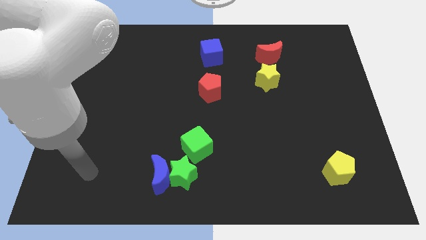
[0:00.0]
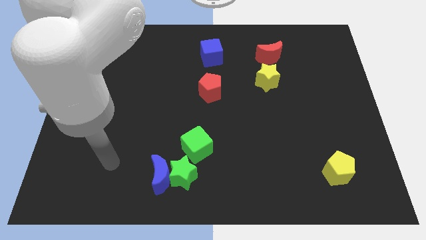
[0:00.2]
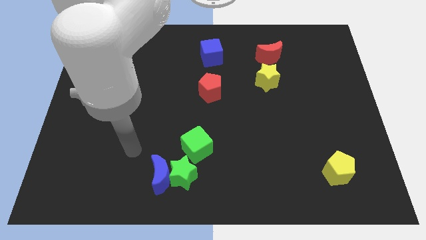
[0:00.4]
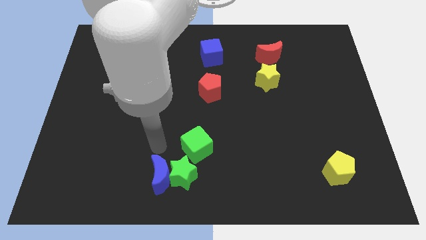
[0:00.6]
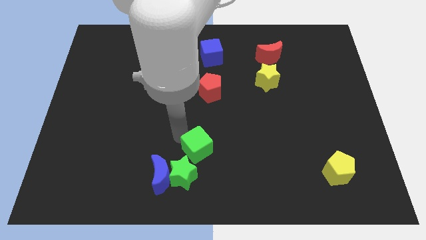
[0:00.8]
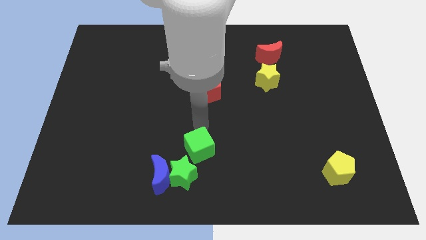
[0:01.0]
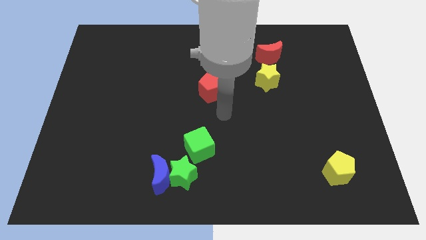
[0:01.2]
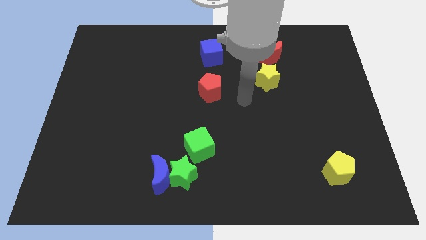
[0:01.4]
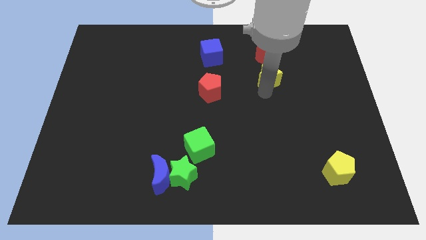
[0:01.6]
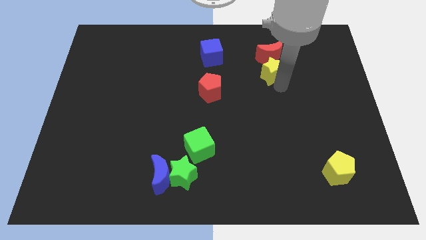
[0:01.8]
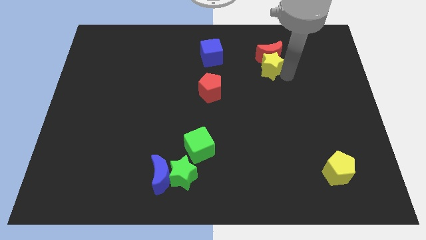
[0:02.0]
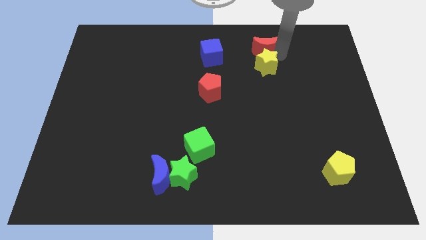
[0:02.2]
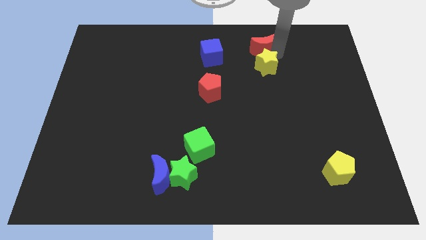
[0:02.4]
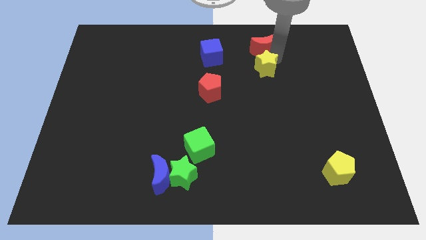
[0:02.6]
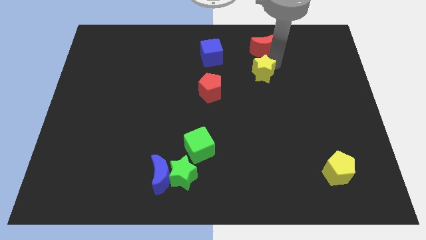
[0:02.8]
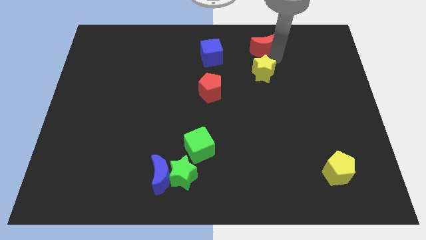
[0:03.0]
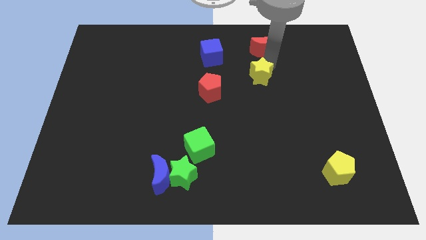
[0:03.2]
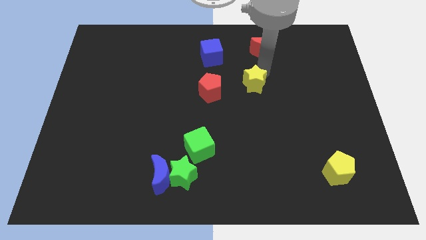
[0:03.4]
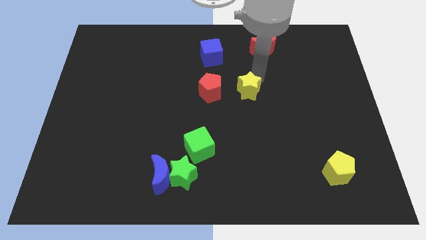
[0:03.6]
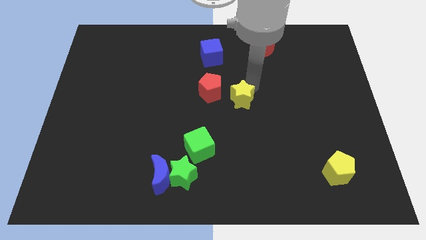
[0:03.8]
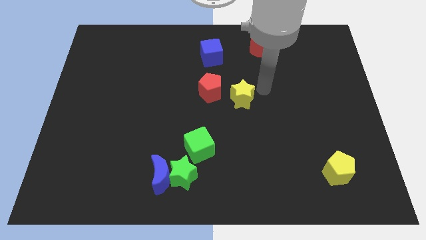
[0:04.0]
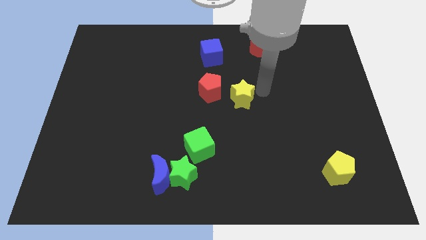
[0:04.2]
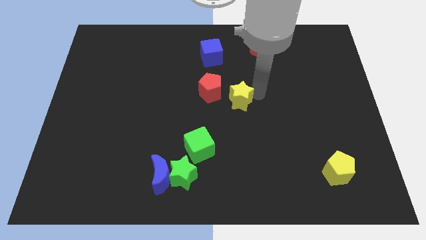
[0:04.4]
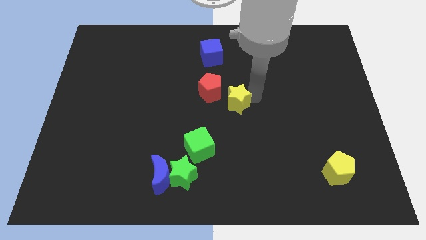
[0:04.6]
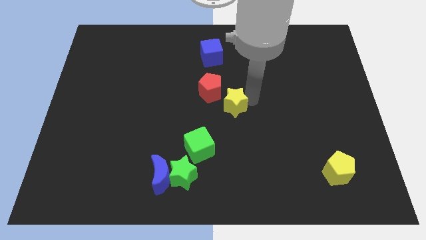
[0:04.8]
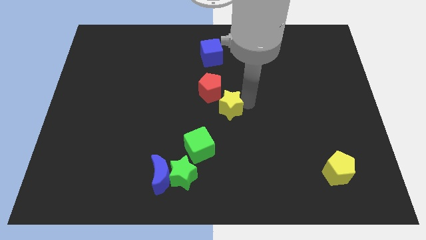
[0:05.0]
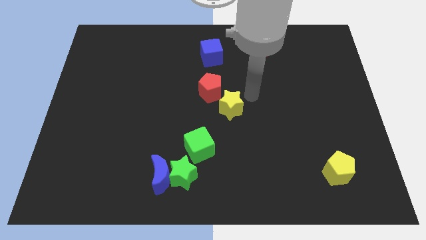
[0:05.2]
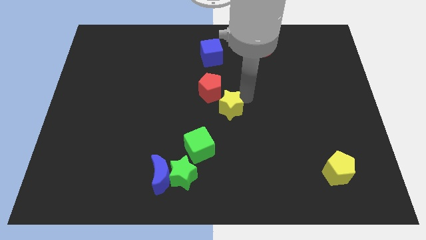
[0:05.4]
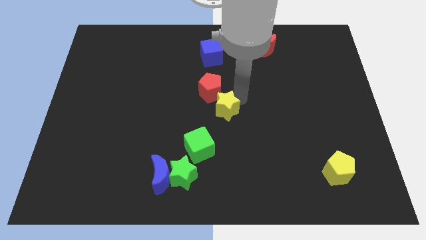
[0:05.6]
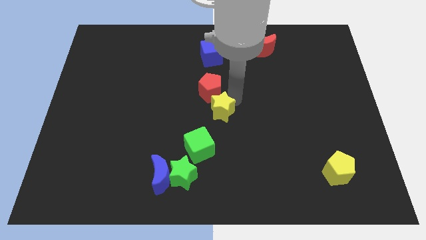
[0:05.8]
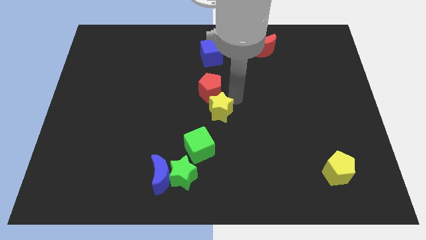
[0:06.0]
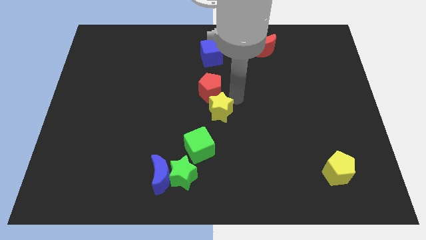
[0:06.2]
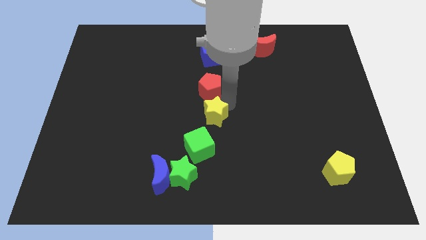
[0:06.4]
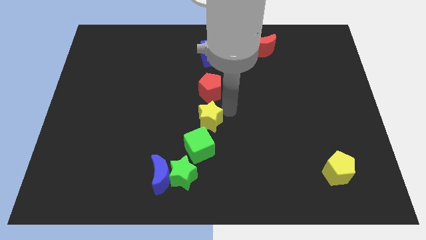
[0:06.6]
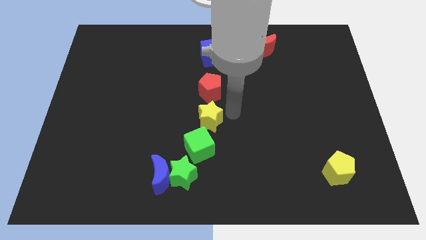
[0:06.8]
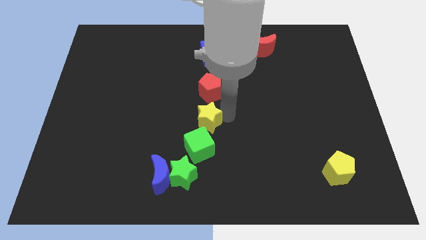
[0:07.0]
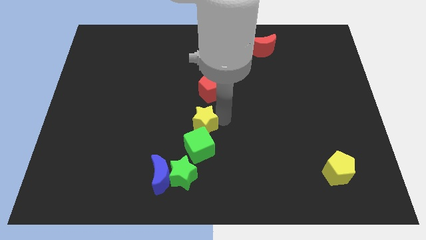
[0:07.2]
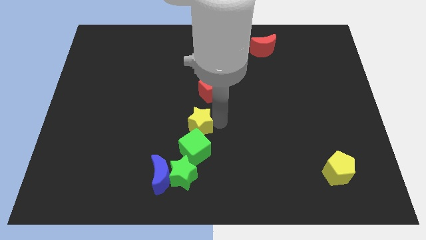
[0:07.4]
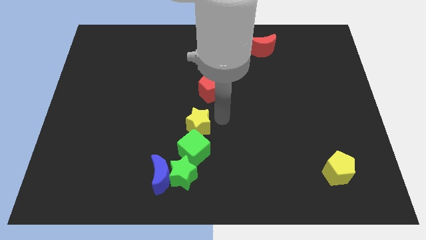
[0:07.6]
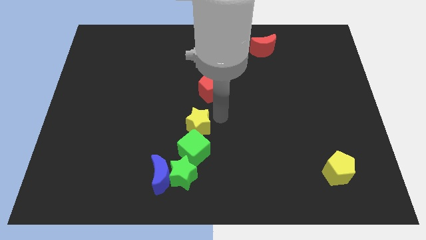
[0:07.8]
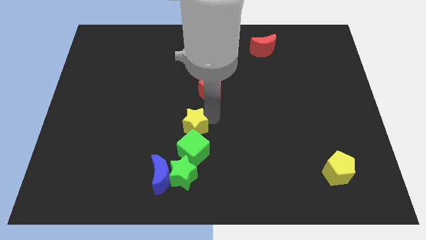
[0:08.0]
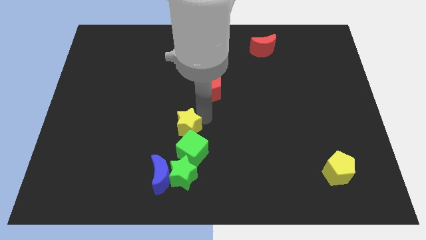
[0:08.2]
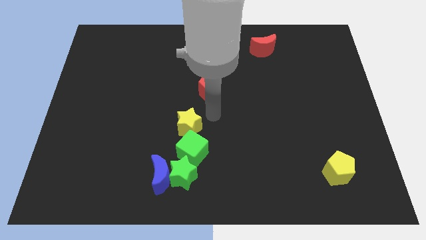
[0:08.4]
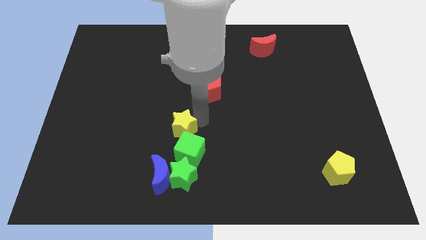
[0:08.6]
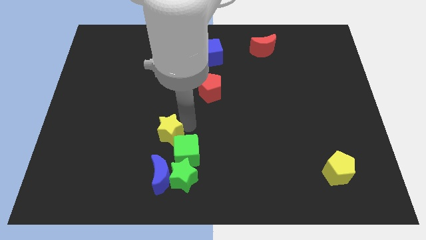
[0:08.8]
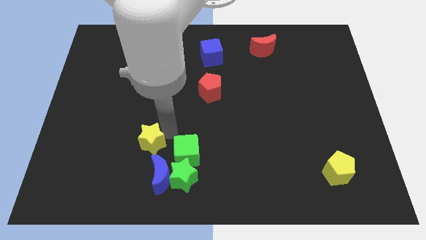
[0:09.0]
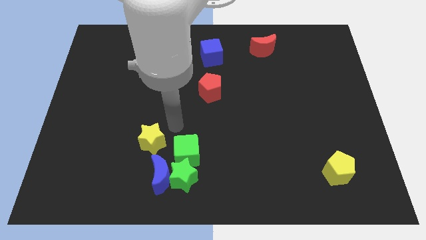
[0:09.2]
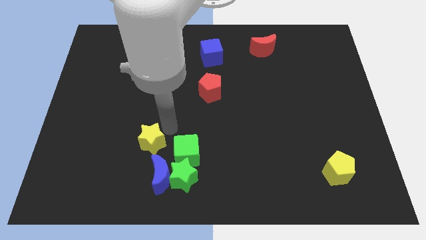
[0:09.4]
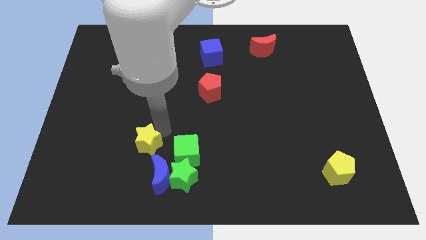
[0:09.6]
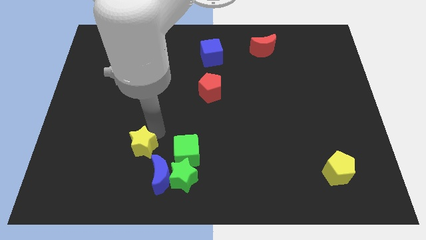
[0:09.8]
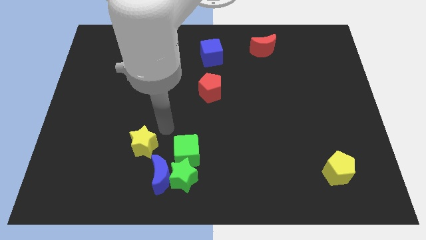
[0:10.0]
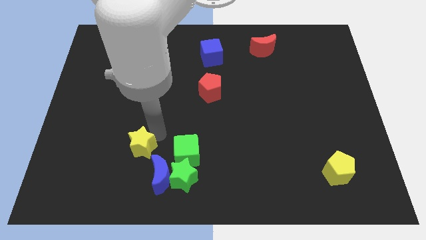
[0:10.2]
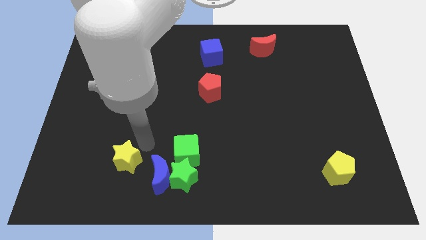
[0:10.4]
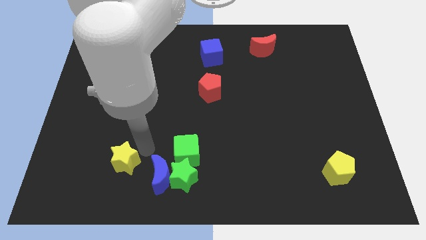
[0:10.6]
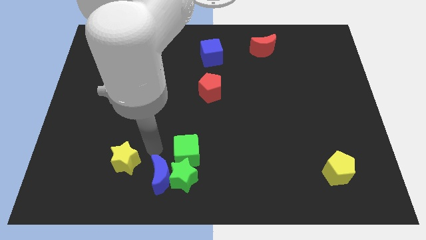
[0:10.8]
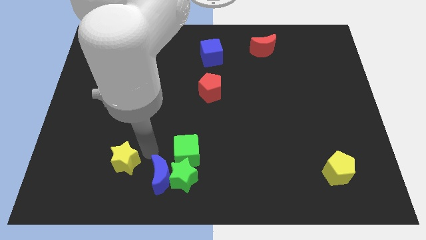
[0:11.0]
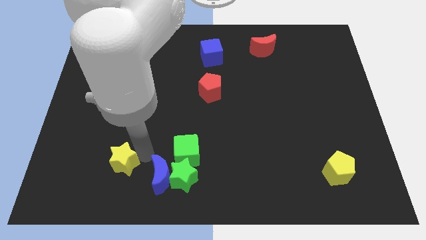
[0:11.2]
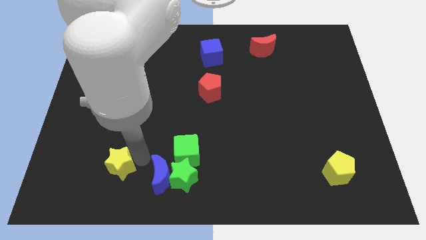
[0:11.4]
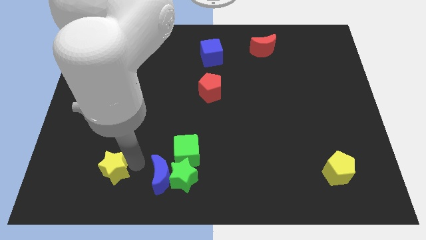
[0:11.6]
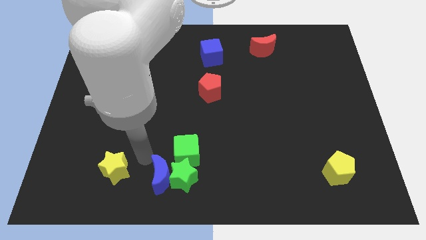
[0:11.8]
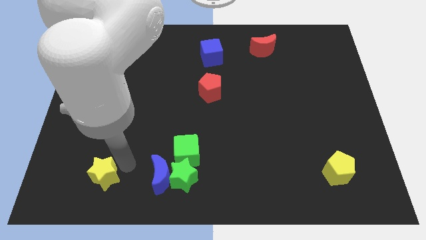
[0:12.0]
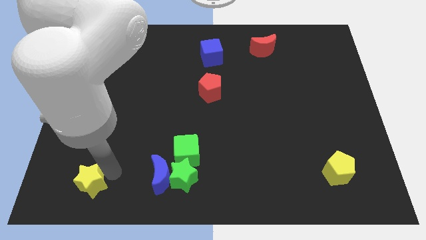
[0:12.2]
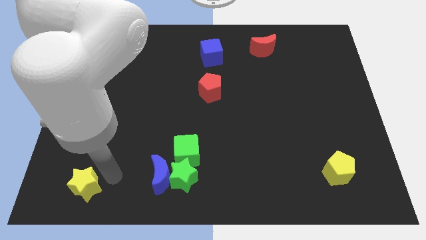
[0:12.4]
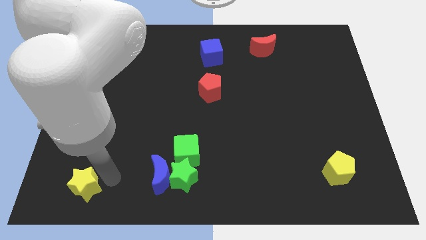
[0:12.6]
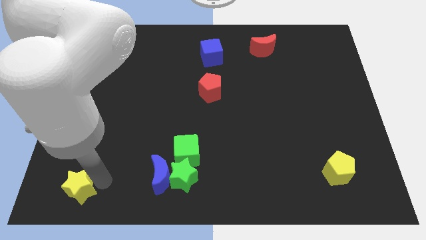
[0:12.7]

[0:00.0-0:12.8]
put the yellow star to the bottom left

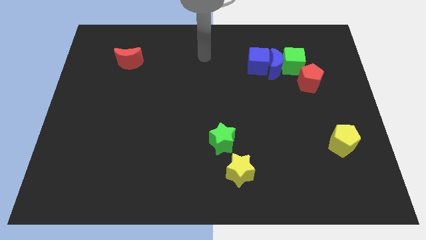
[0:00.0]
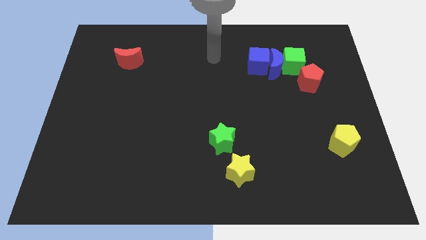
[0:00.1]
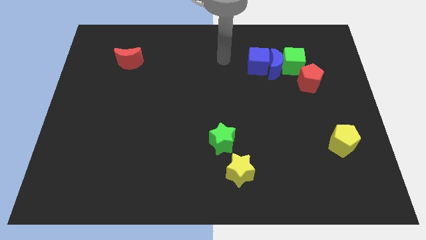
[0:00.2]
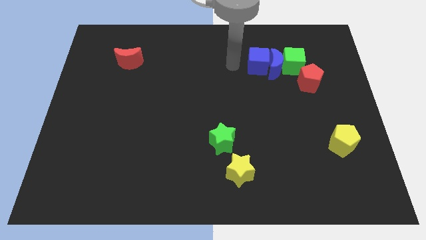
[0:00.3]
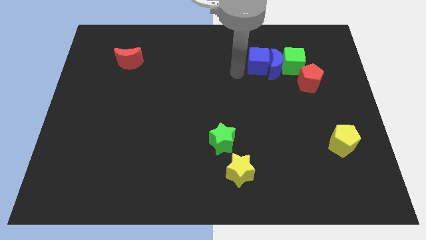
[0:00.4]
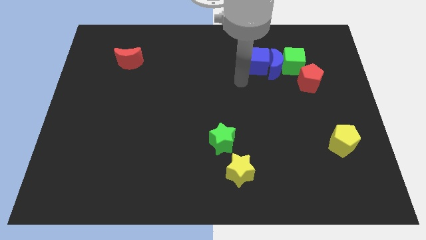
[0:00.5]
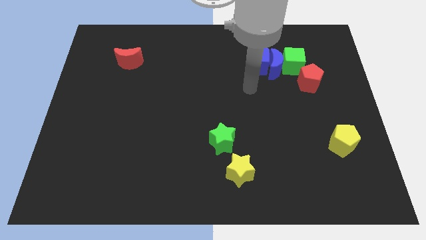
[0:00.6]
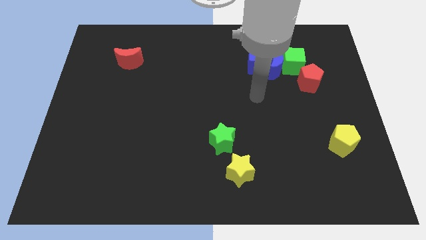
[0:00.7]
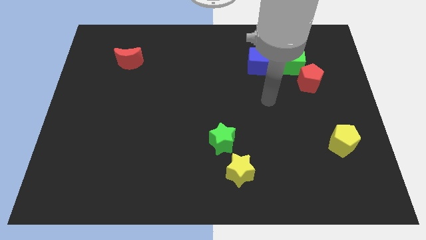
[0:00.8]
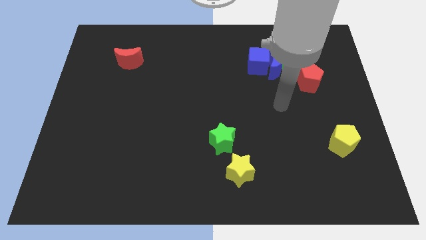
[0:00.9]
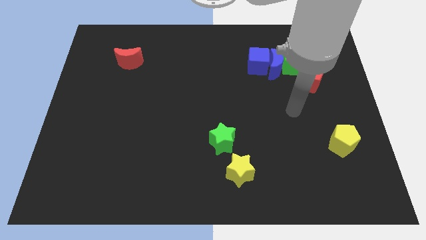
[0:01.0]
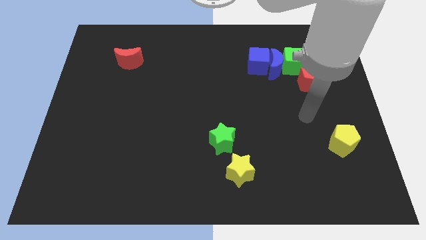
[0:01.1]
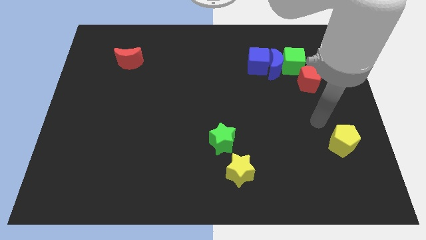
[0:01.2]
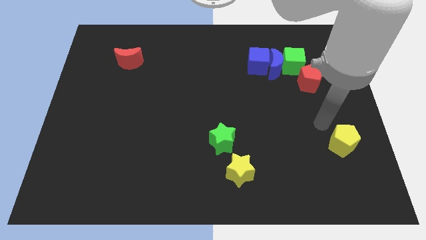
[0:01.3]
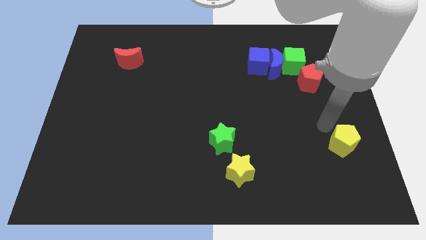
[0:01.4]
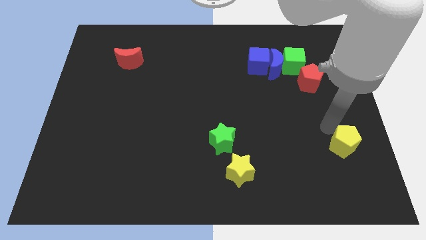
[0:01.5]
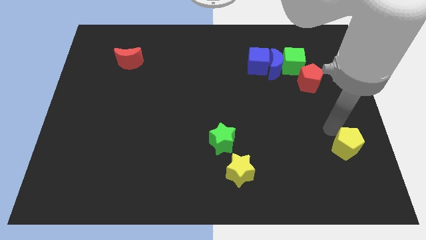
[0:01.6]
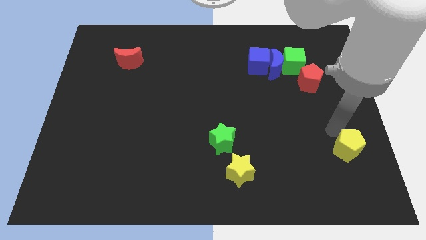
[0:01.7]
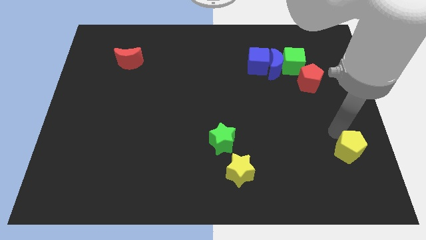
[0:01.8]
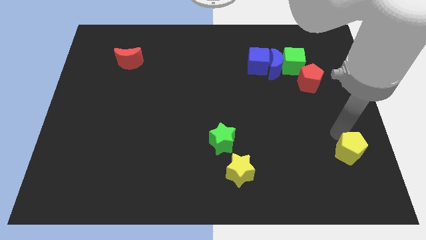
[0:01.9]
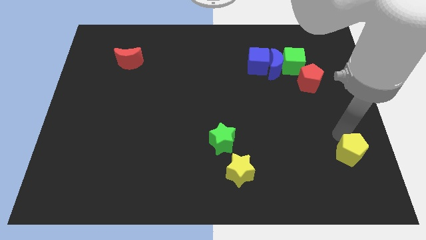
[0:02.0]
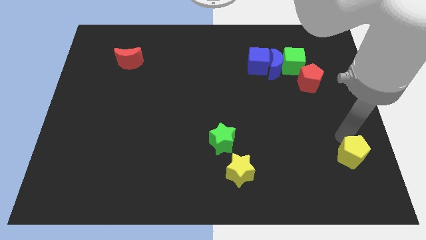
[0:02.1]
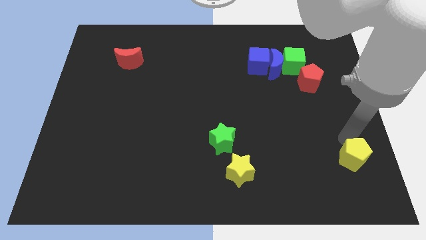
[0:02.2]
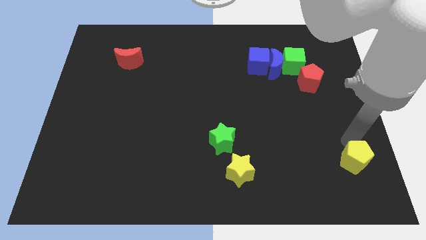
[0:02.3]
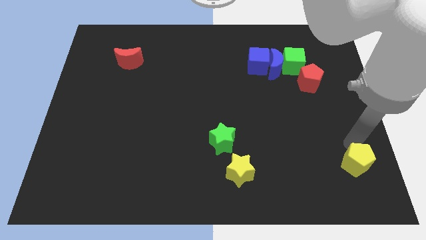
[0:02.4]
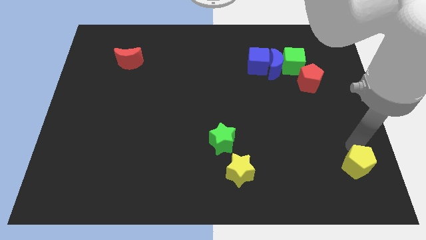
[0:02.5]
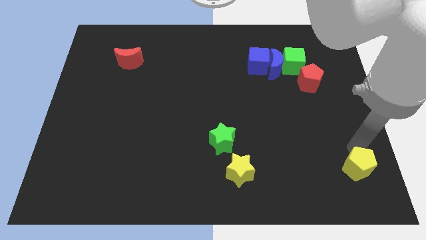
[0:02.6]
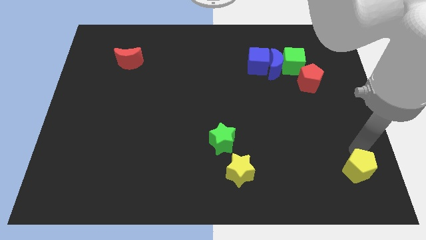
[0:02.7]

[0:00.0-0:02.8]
put the yellow pentagon to the lower right corner
